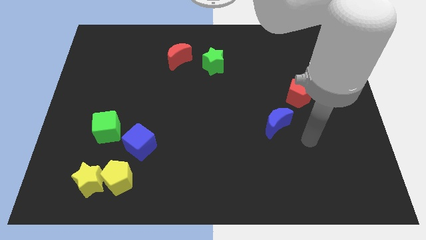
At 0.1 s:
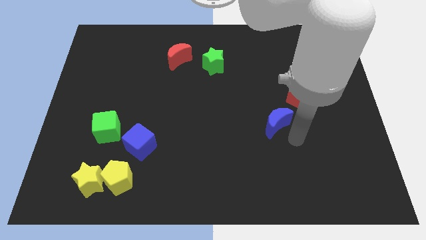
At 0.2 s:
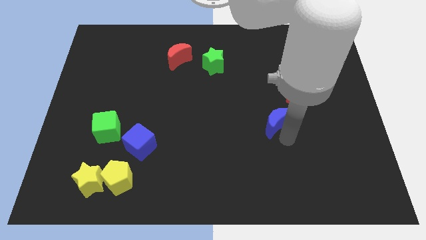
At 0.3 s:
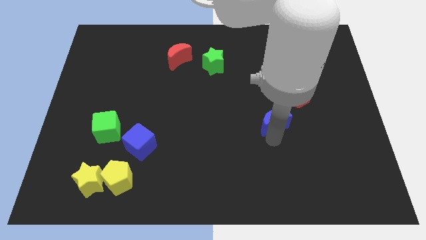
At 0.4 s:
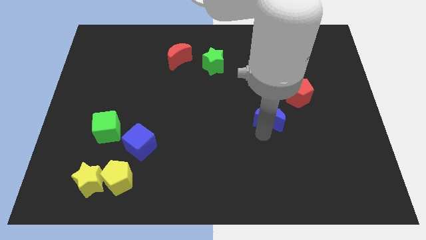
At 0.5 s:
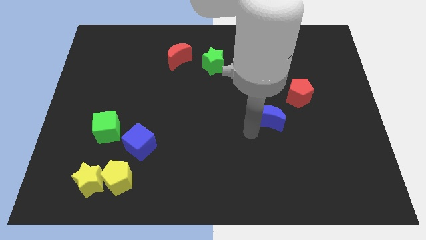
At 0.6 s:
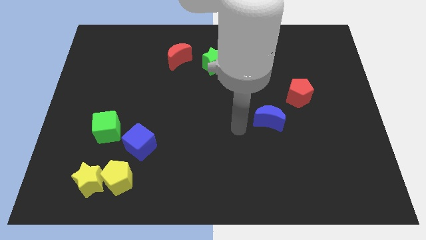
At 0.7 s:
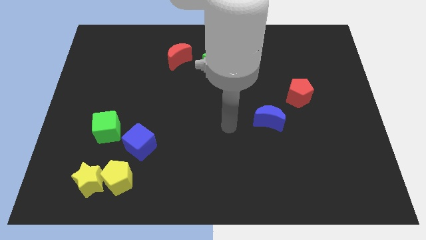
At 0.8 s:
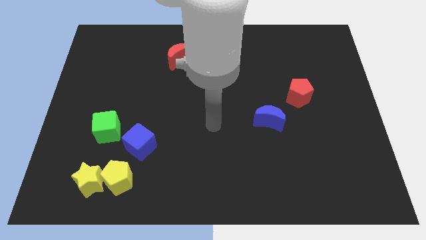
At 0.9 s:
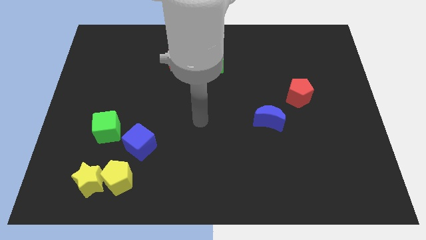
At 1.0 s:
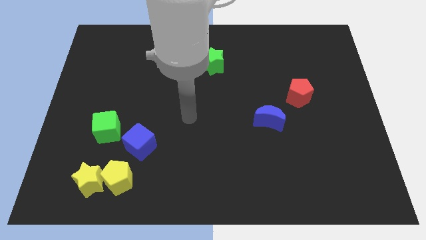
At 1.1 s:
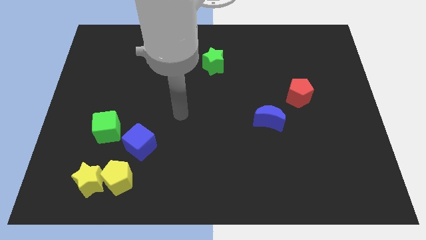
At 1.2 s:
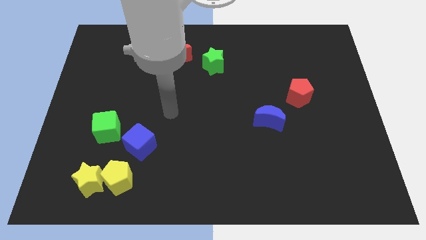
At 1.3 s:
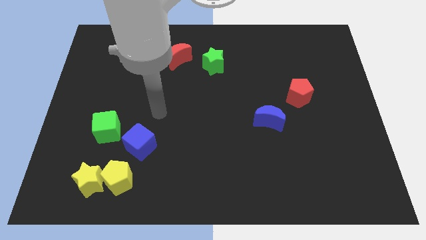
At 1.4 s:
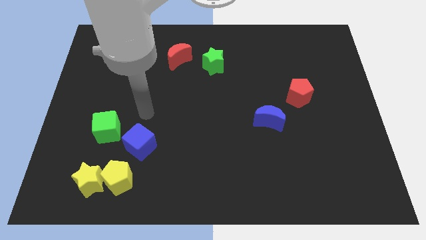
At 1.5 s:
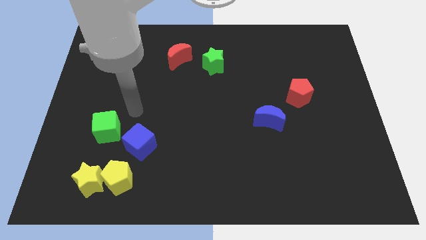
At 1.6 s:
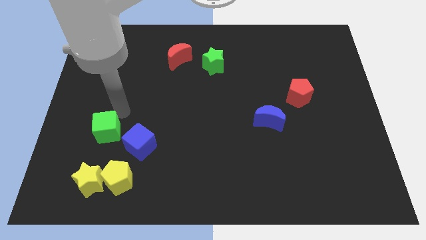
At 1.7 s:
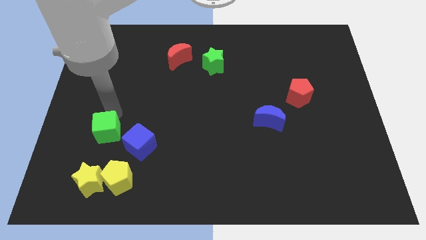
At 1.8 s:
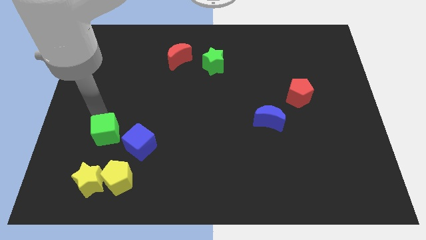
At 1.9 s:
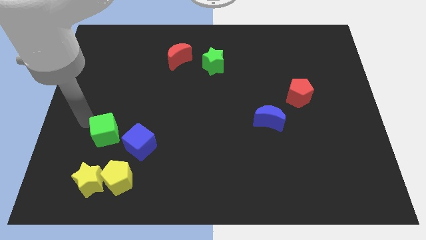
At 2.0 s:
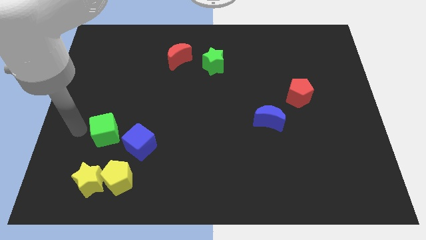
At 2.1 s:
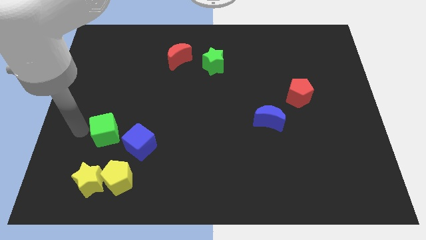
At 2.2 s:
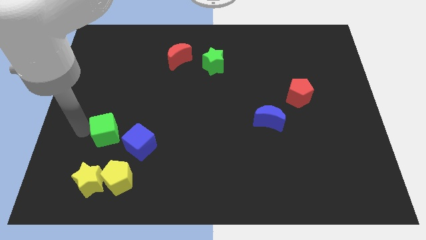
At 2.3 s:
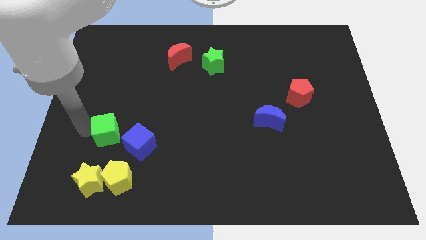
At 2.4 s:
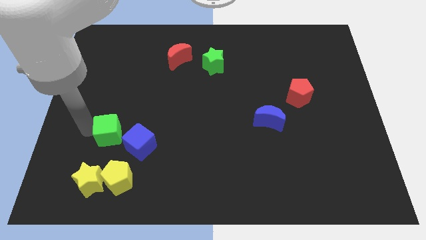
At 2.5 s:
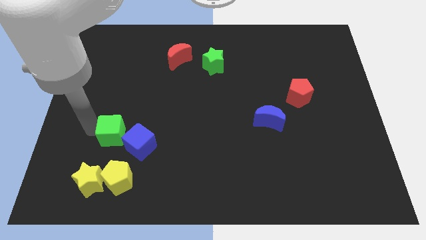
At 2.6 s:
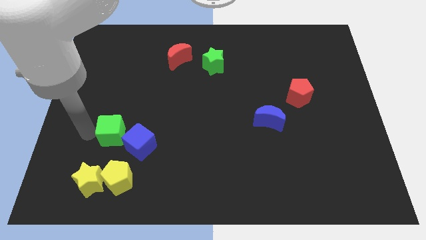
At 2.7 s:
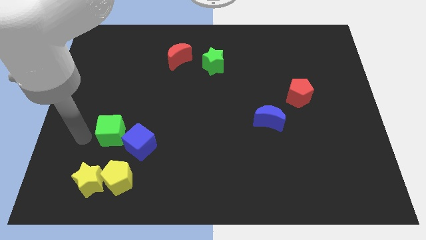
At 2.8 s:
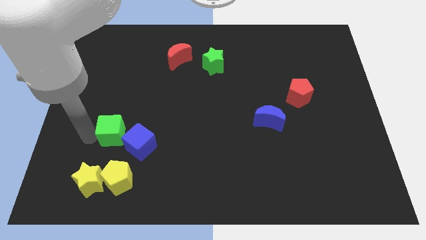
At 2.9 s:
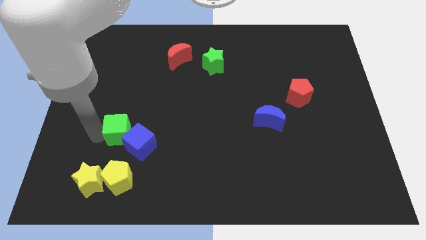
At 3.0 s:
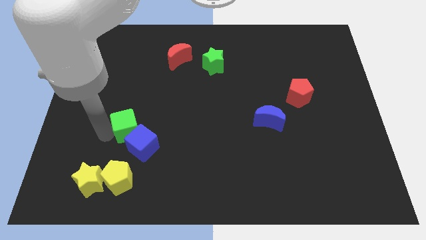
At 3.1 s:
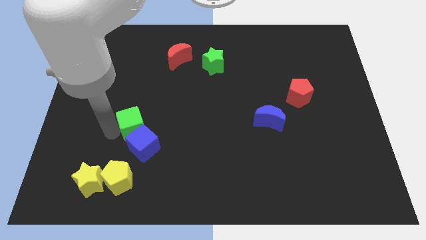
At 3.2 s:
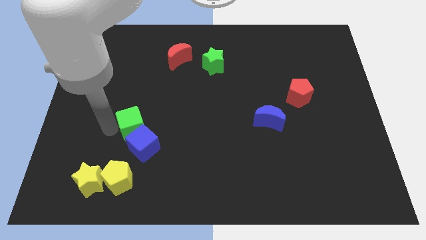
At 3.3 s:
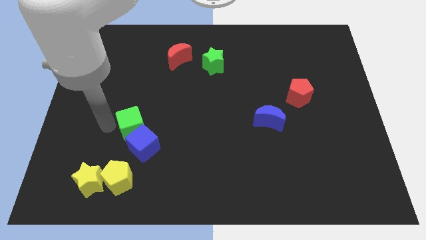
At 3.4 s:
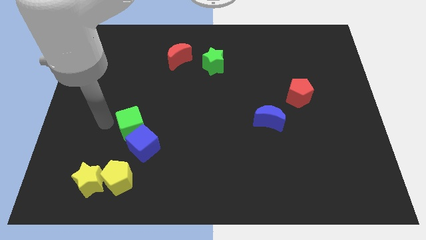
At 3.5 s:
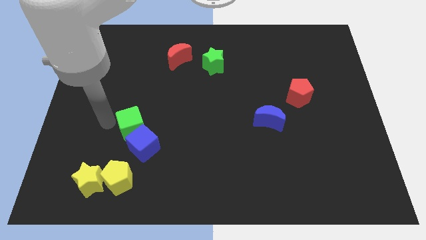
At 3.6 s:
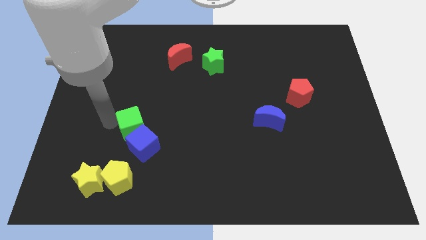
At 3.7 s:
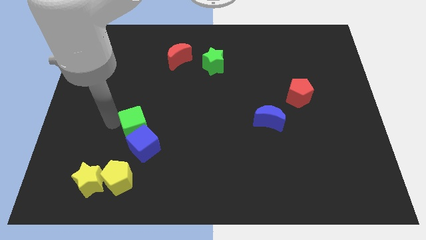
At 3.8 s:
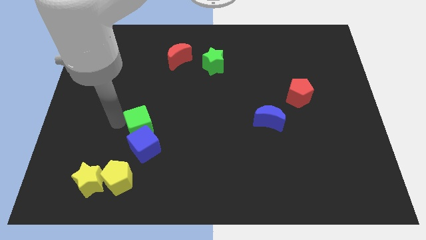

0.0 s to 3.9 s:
push the green cube to the right somewhat

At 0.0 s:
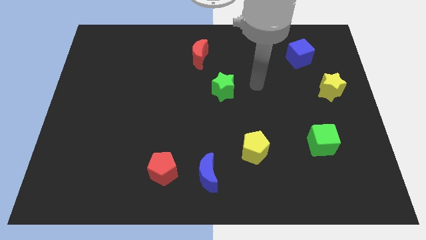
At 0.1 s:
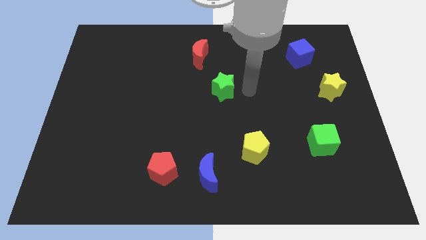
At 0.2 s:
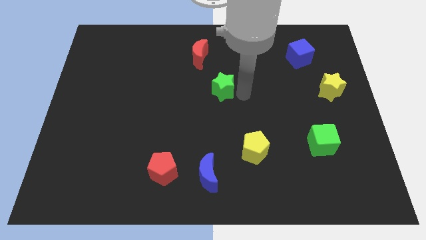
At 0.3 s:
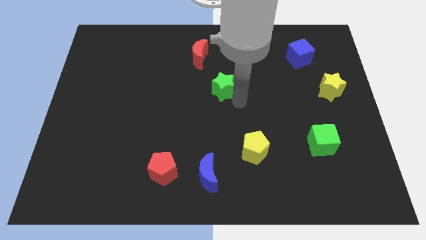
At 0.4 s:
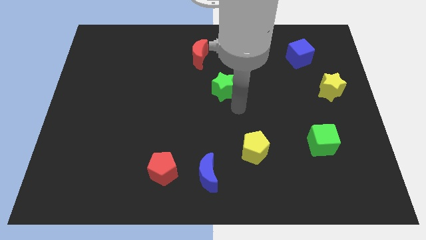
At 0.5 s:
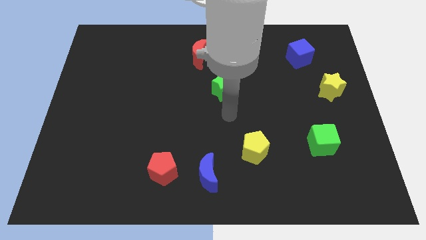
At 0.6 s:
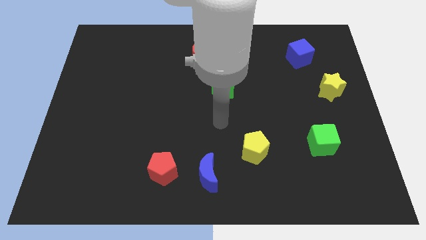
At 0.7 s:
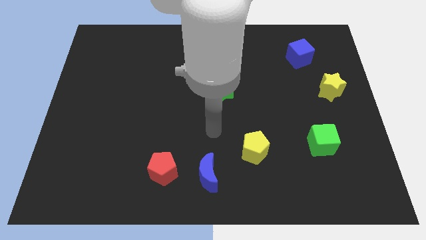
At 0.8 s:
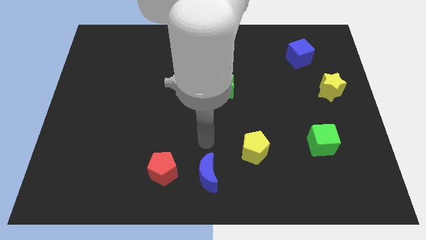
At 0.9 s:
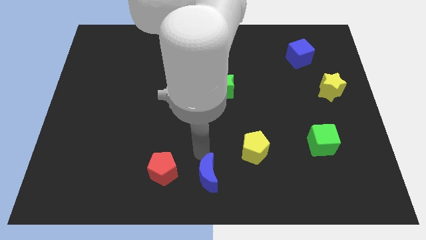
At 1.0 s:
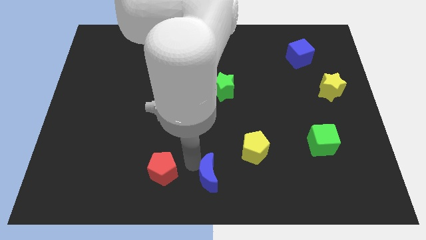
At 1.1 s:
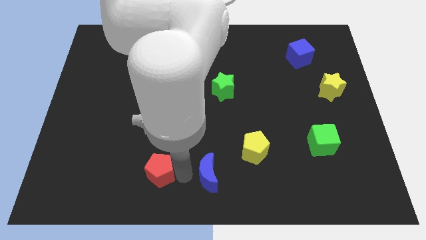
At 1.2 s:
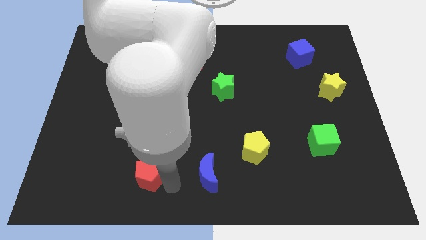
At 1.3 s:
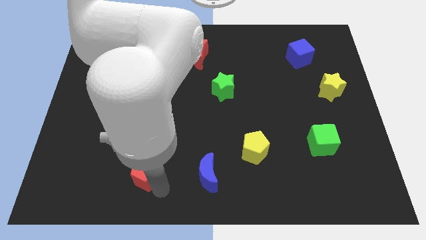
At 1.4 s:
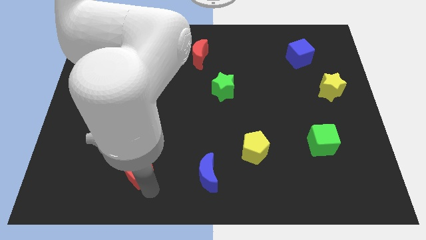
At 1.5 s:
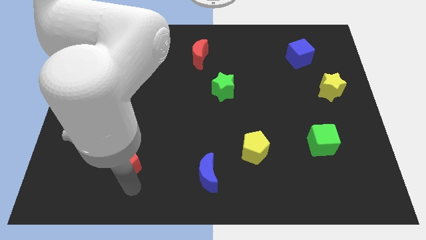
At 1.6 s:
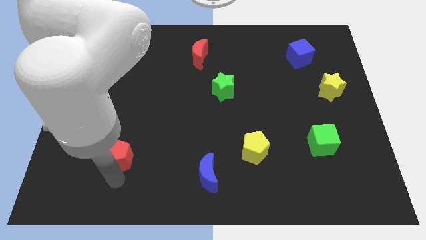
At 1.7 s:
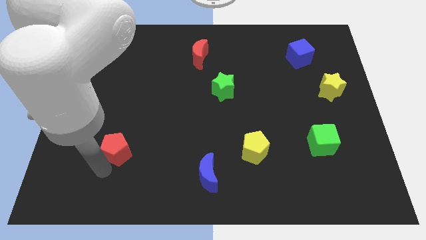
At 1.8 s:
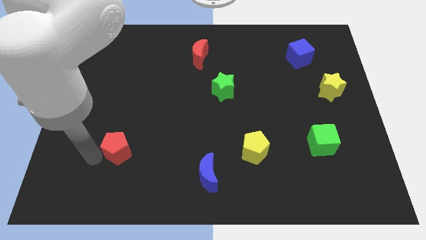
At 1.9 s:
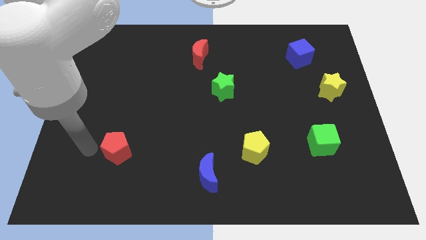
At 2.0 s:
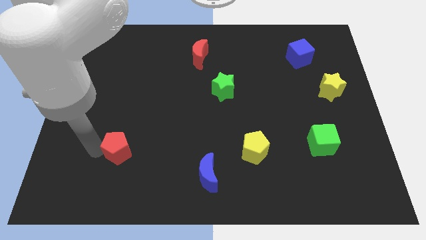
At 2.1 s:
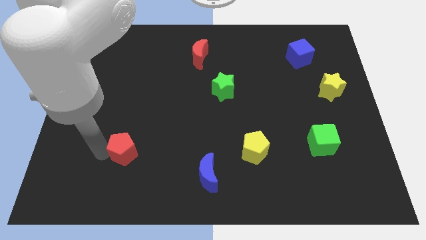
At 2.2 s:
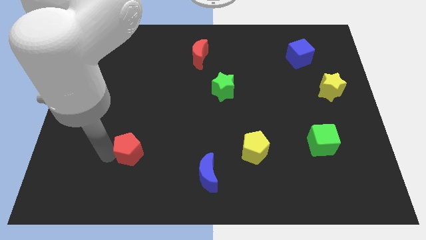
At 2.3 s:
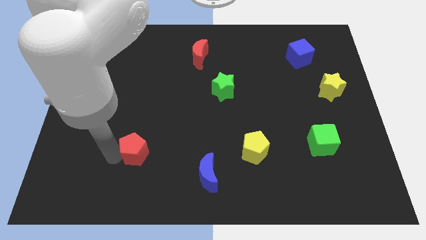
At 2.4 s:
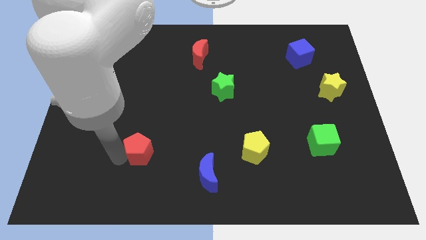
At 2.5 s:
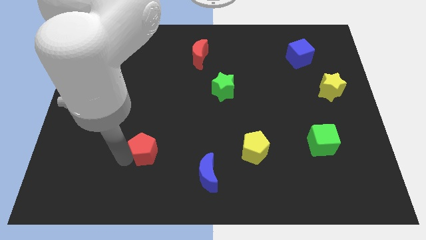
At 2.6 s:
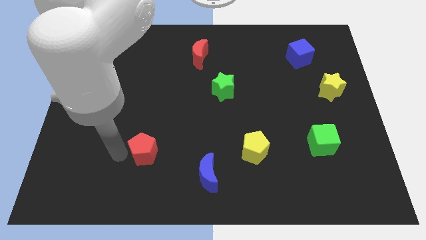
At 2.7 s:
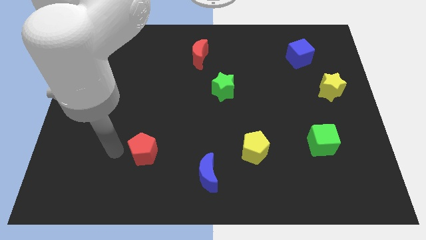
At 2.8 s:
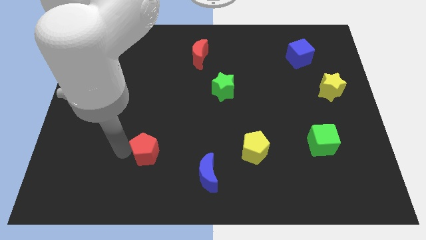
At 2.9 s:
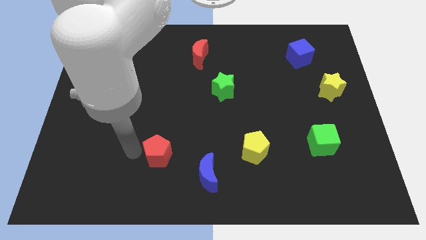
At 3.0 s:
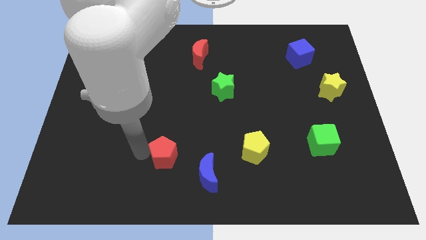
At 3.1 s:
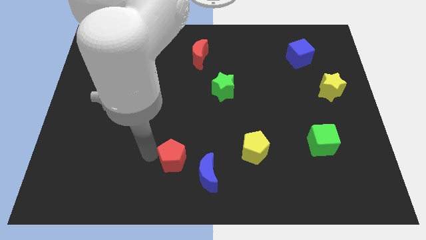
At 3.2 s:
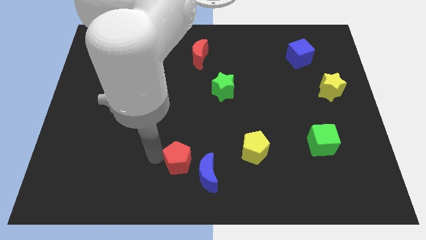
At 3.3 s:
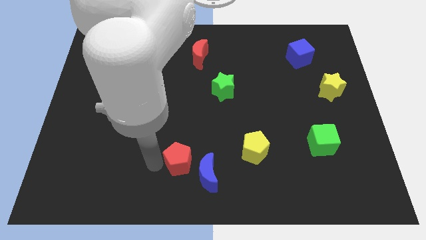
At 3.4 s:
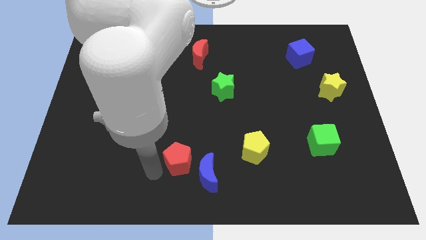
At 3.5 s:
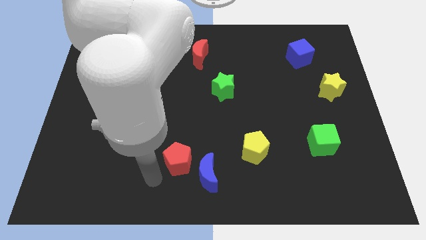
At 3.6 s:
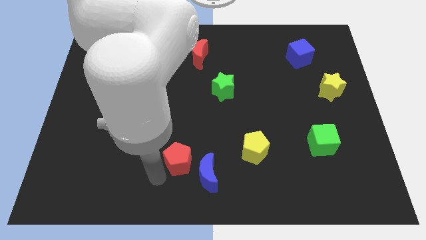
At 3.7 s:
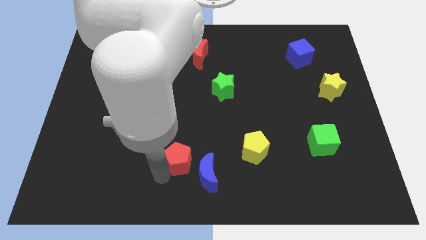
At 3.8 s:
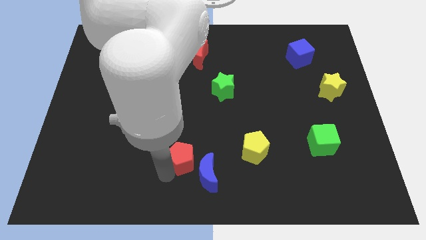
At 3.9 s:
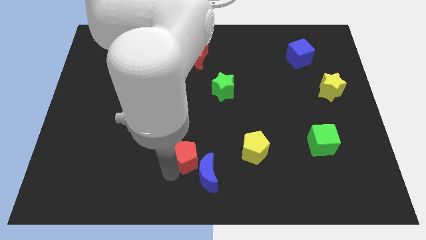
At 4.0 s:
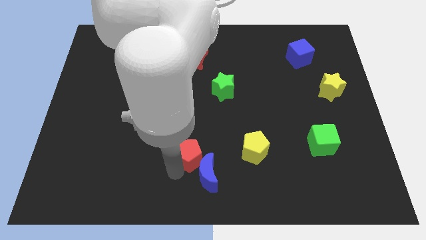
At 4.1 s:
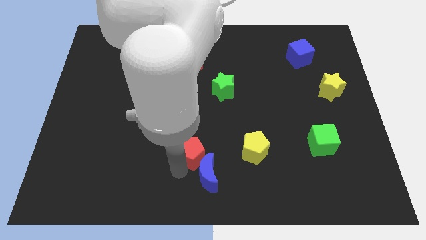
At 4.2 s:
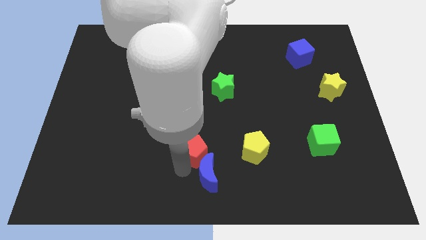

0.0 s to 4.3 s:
slightly slide the red pentagon up and then right
